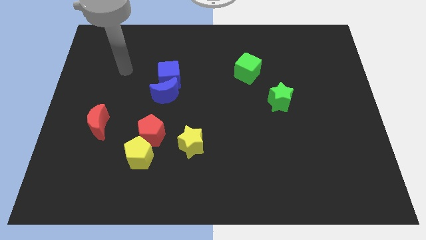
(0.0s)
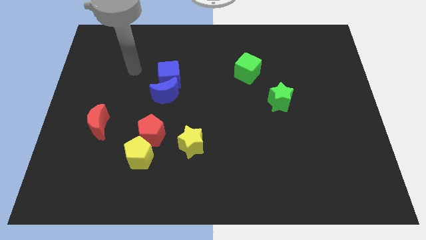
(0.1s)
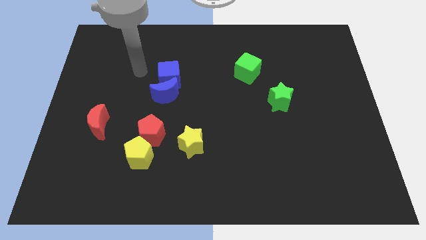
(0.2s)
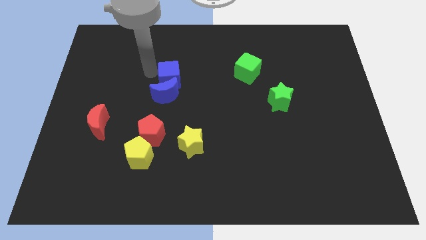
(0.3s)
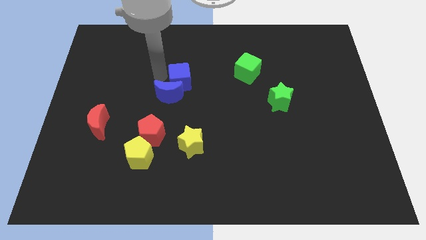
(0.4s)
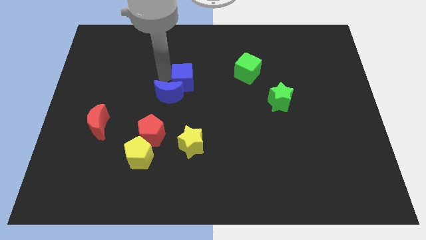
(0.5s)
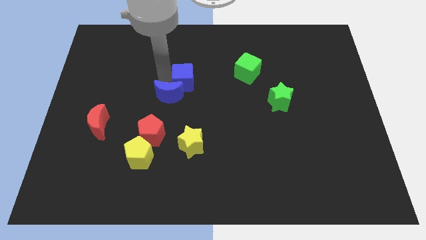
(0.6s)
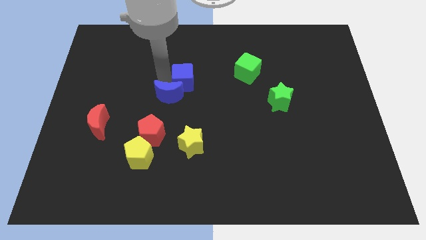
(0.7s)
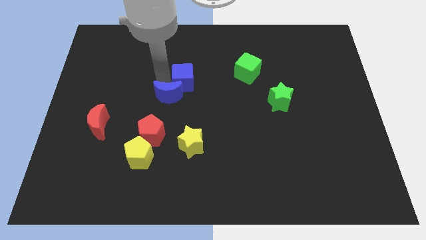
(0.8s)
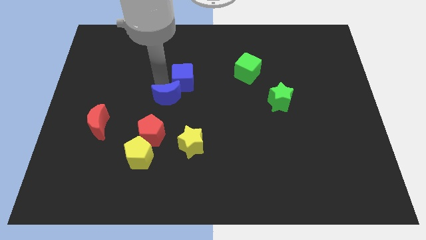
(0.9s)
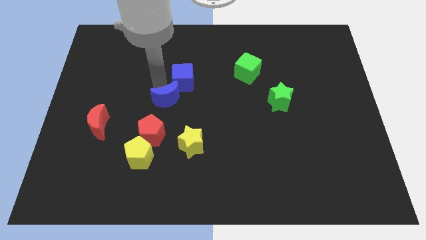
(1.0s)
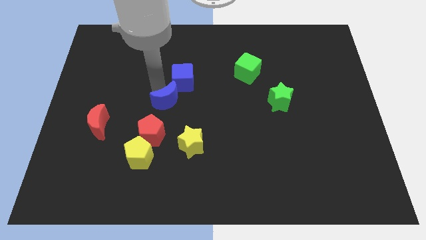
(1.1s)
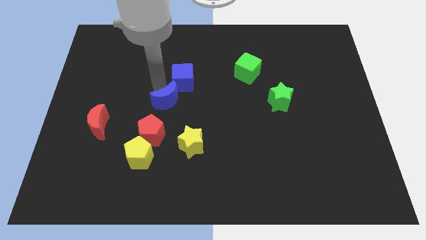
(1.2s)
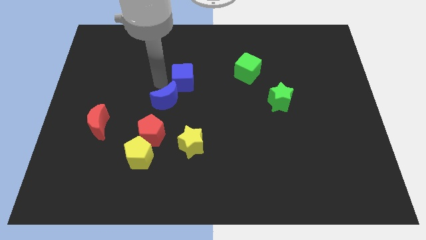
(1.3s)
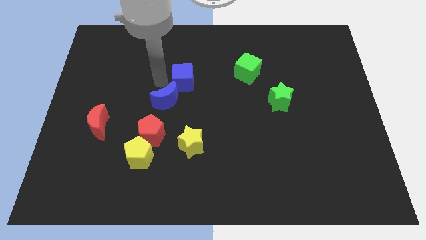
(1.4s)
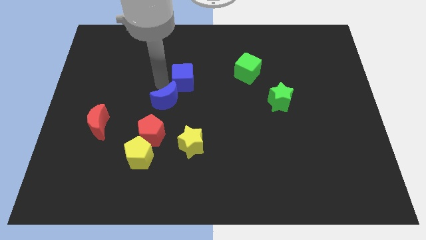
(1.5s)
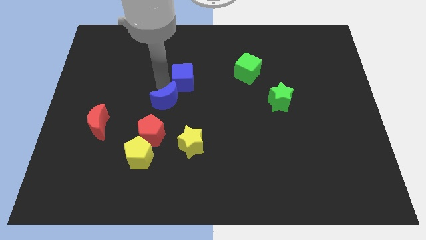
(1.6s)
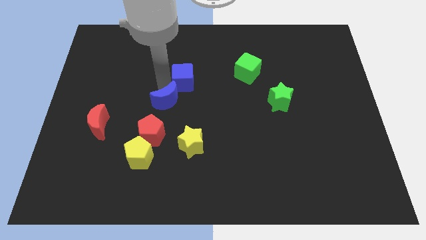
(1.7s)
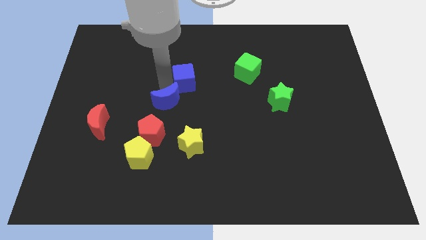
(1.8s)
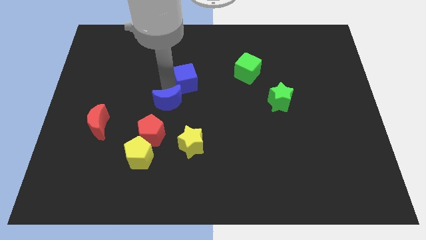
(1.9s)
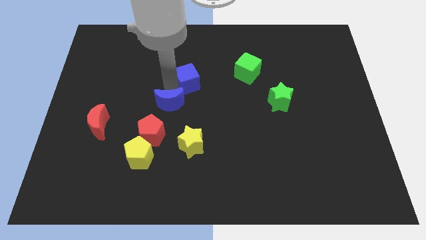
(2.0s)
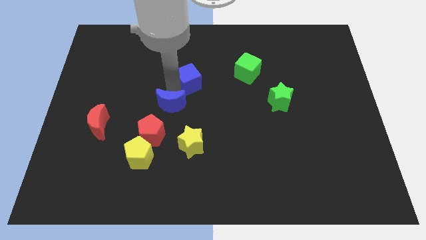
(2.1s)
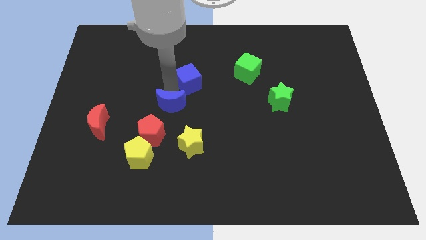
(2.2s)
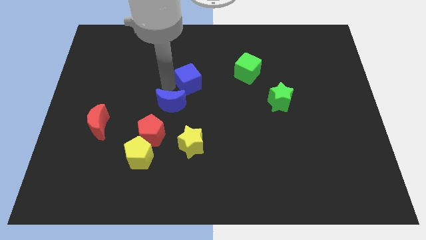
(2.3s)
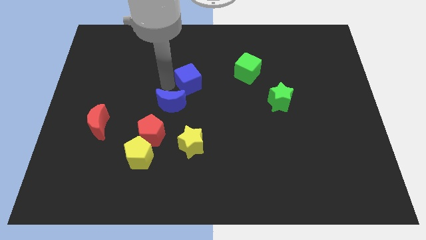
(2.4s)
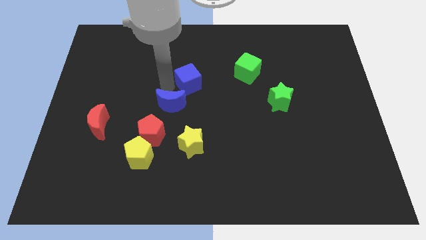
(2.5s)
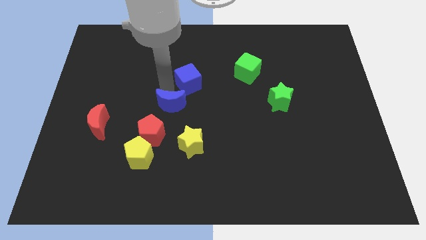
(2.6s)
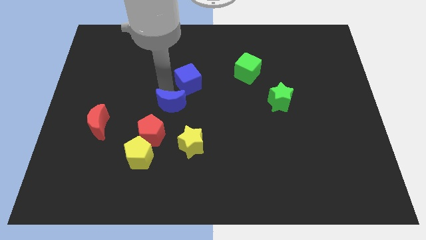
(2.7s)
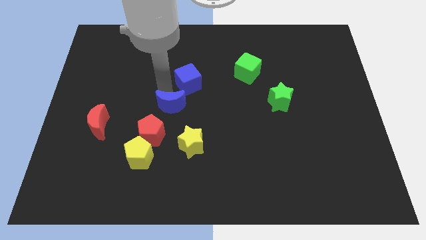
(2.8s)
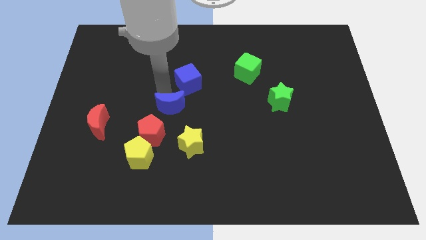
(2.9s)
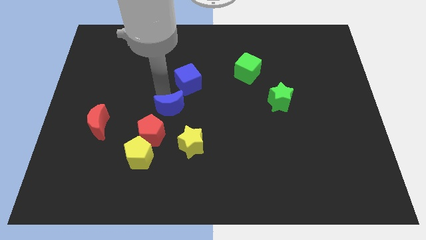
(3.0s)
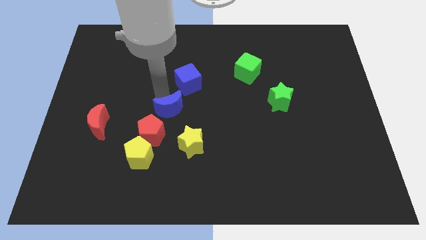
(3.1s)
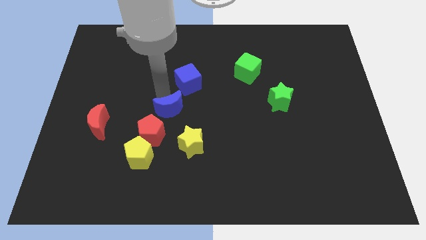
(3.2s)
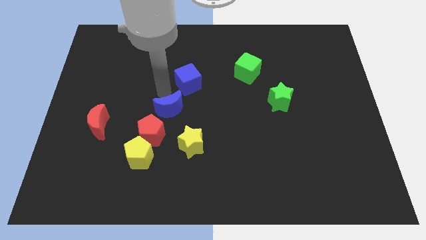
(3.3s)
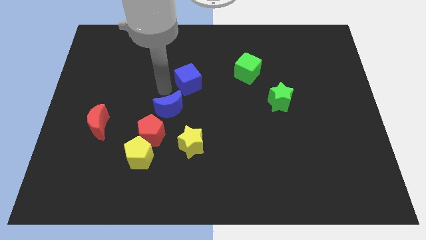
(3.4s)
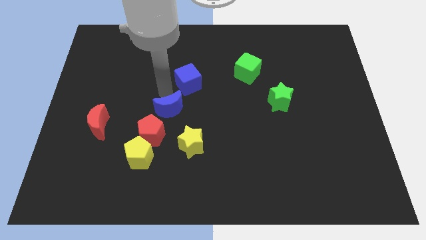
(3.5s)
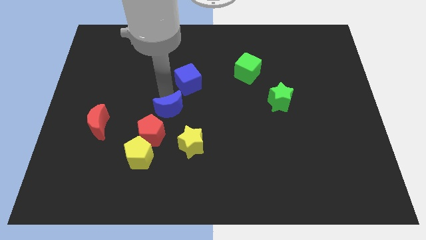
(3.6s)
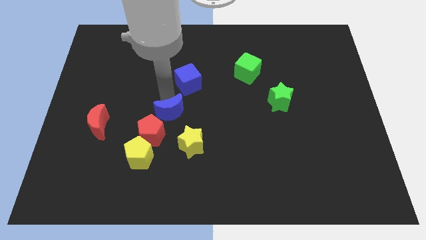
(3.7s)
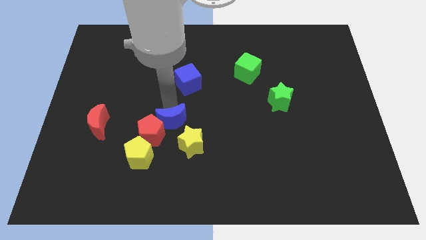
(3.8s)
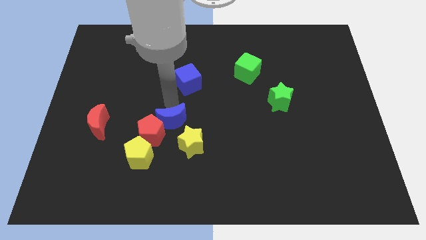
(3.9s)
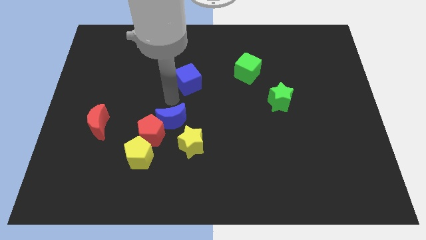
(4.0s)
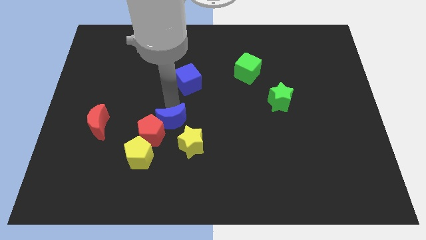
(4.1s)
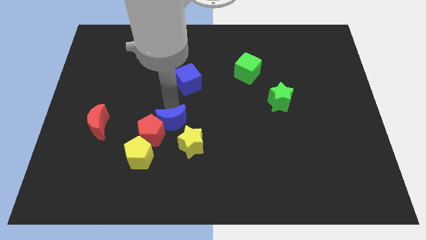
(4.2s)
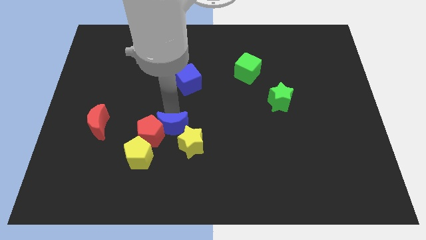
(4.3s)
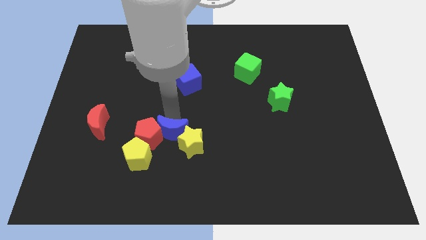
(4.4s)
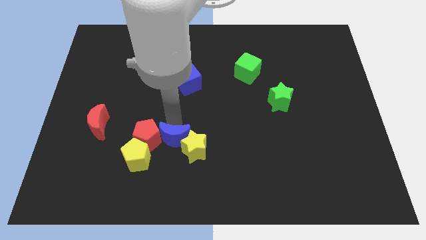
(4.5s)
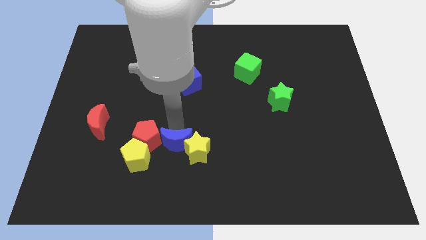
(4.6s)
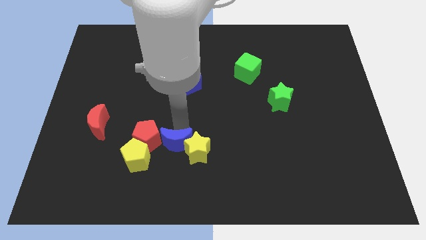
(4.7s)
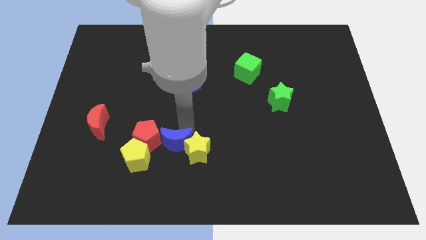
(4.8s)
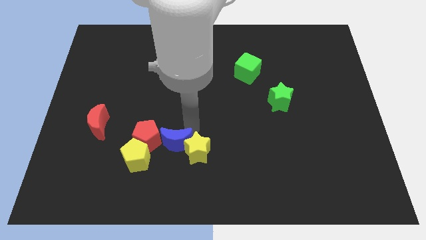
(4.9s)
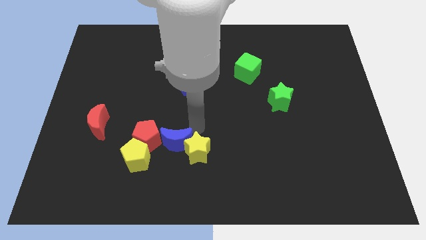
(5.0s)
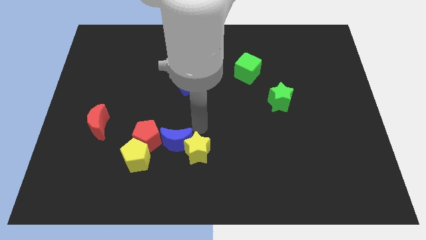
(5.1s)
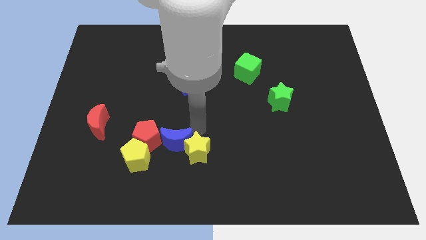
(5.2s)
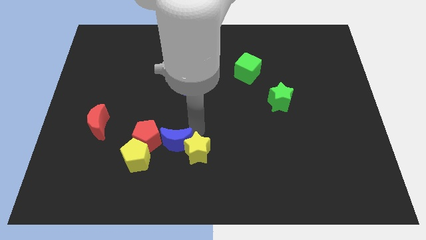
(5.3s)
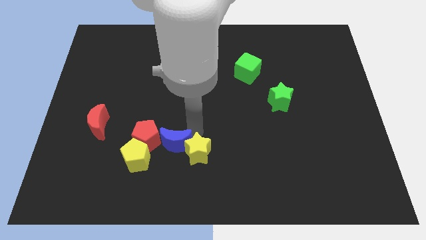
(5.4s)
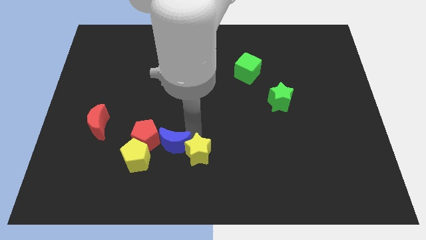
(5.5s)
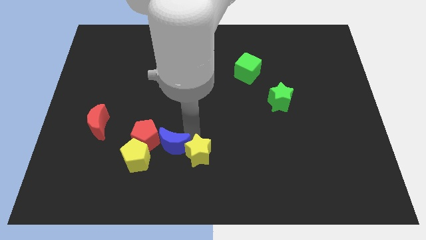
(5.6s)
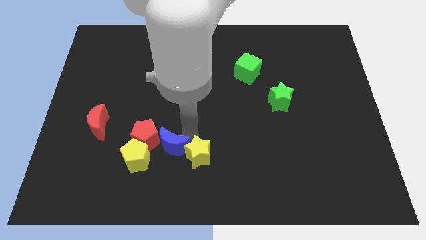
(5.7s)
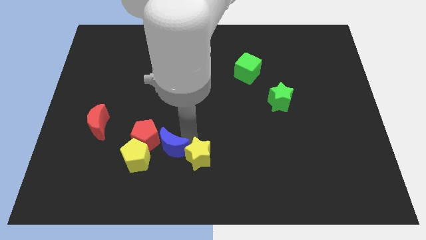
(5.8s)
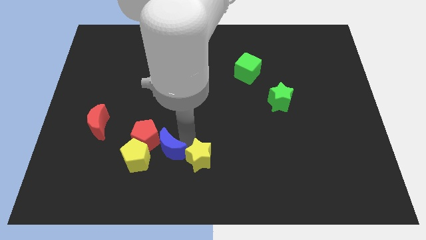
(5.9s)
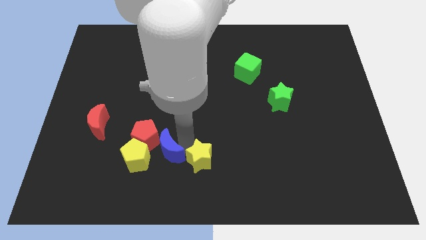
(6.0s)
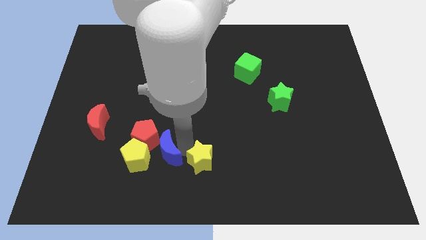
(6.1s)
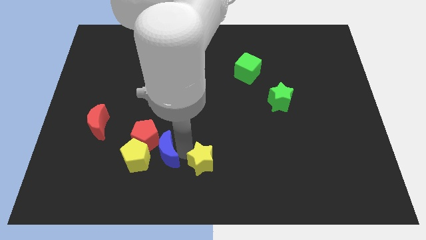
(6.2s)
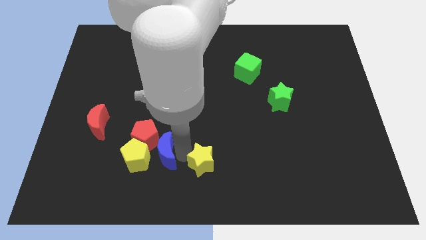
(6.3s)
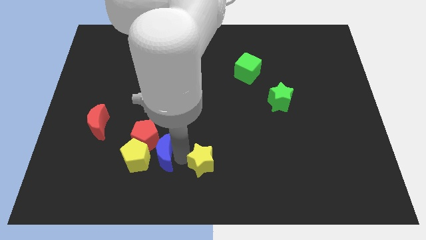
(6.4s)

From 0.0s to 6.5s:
put the blue moon towards the yellow pentagon

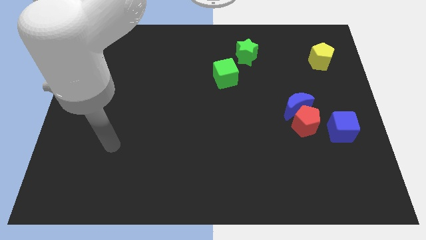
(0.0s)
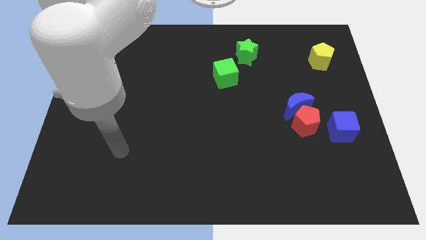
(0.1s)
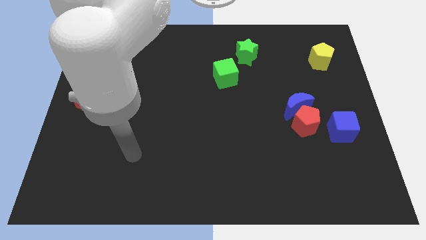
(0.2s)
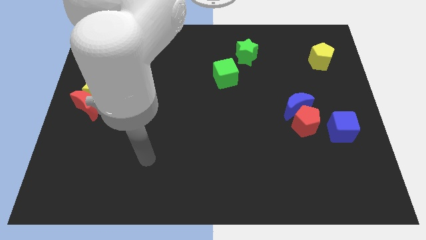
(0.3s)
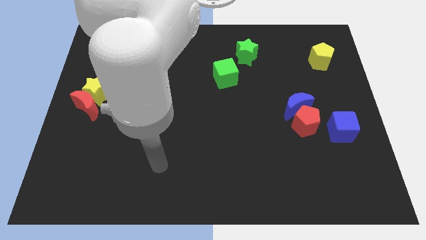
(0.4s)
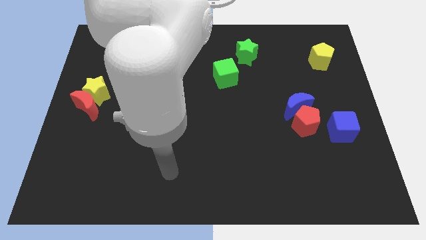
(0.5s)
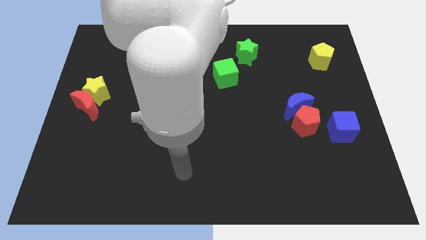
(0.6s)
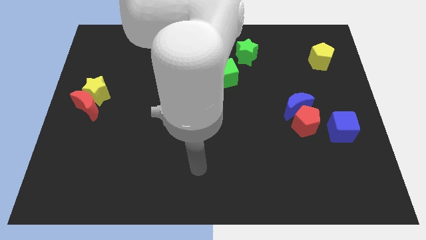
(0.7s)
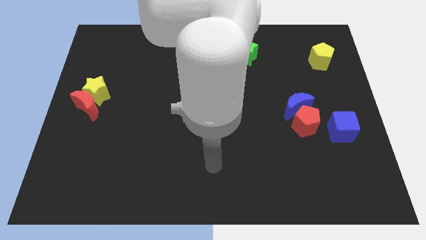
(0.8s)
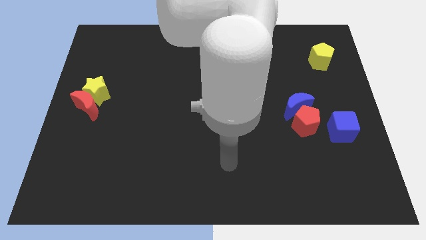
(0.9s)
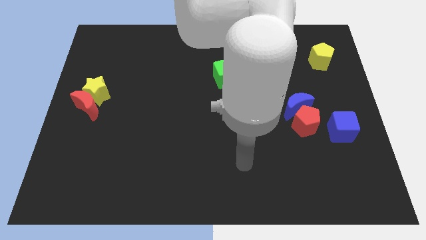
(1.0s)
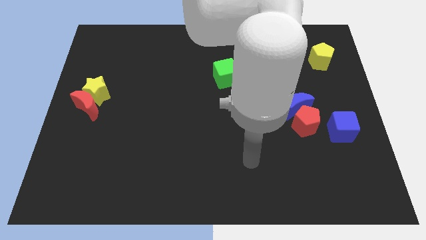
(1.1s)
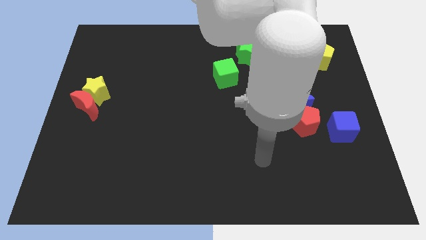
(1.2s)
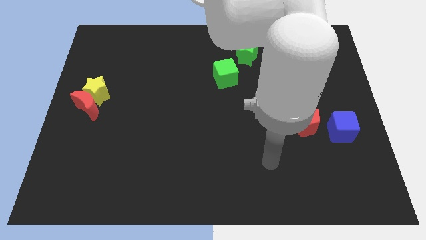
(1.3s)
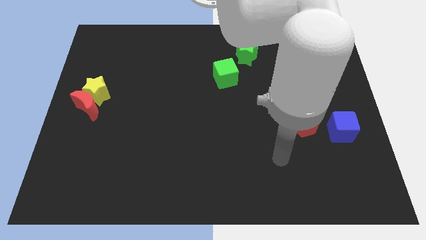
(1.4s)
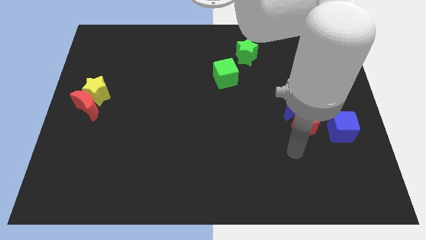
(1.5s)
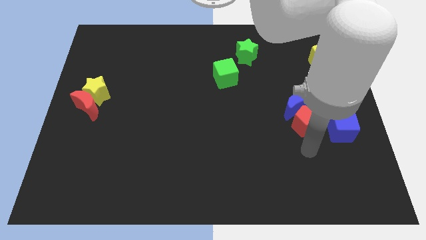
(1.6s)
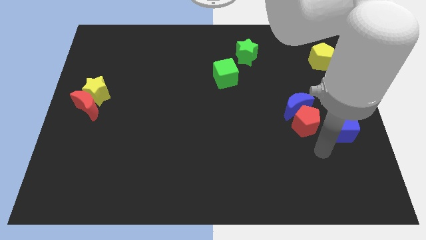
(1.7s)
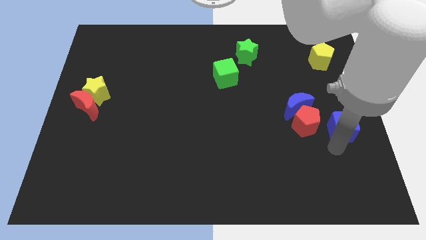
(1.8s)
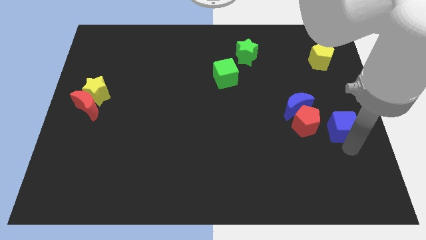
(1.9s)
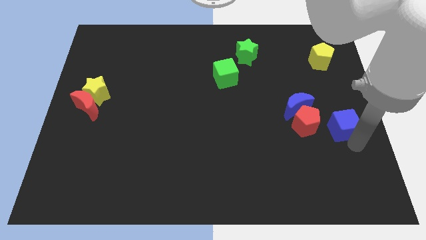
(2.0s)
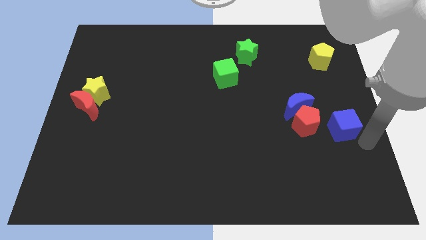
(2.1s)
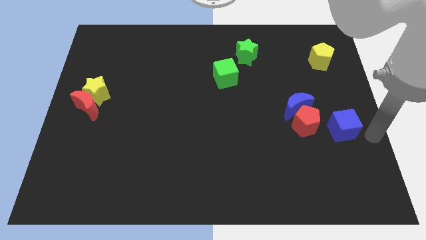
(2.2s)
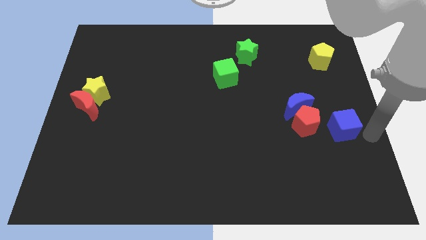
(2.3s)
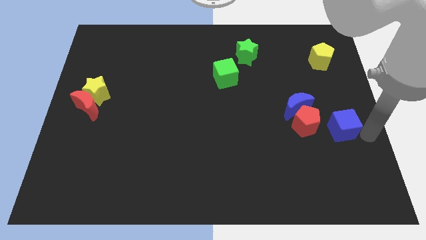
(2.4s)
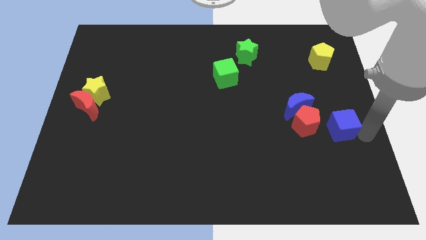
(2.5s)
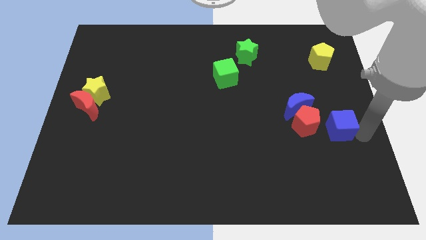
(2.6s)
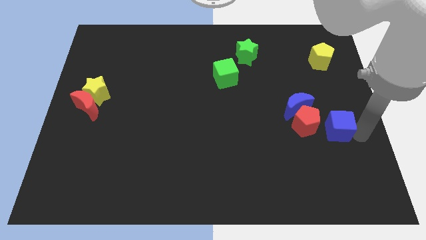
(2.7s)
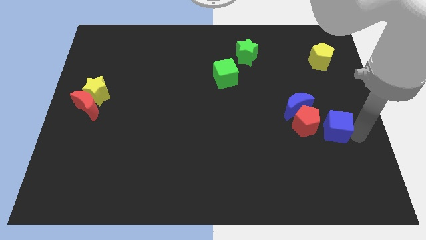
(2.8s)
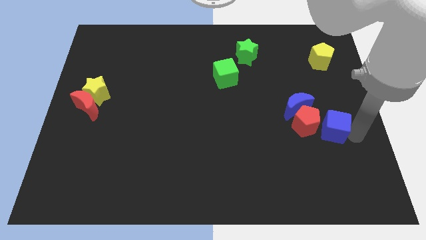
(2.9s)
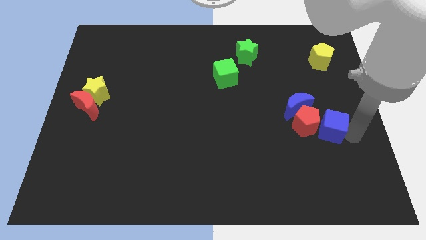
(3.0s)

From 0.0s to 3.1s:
slide the blue cube next to the red pentagon
